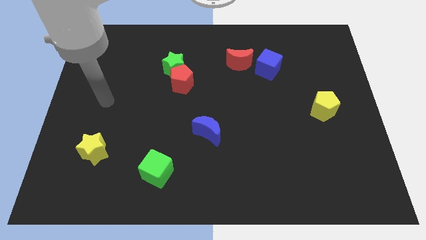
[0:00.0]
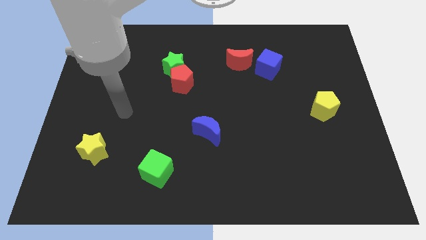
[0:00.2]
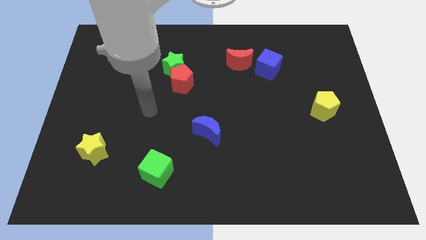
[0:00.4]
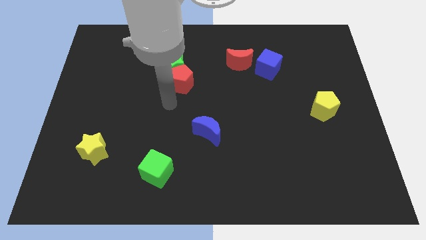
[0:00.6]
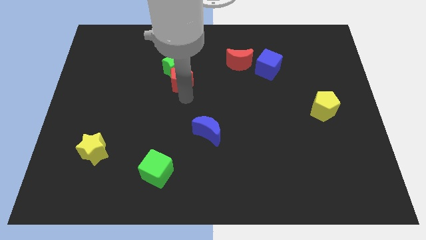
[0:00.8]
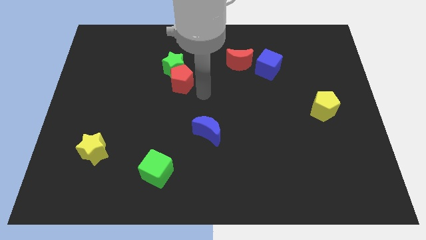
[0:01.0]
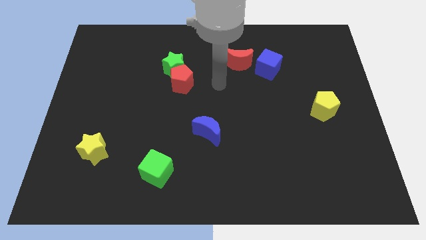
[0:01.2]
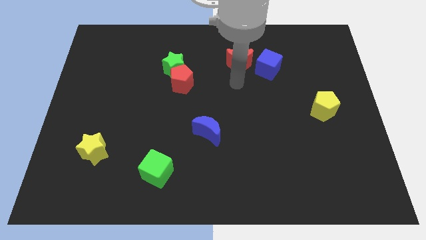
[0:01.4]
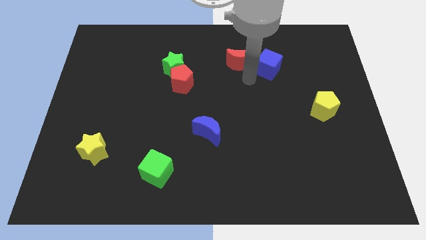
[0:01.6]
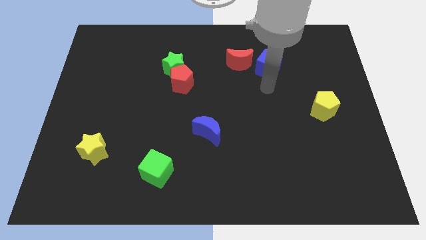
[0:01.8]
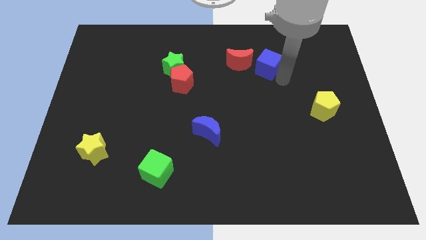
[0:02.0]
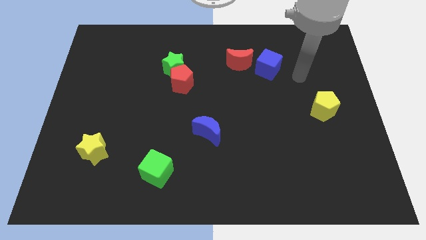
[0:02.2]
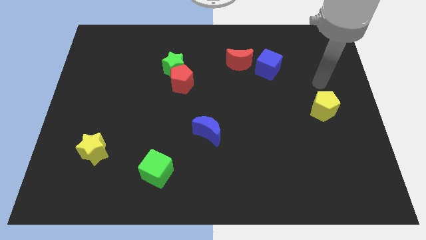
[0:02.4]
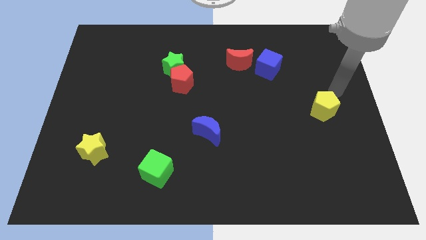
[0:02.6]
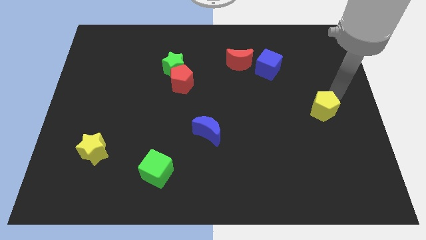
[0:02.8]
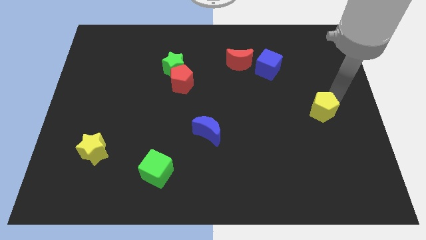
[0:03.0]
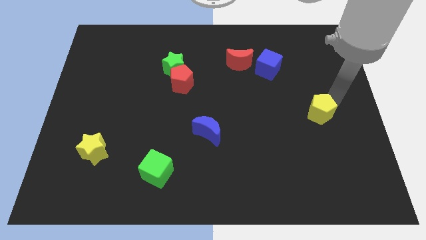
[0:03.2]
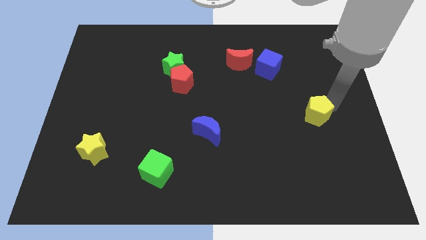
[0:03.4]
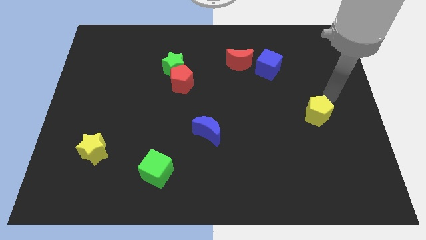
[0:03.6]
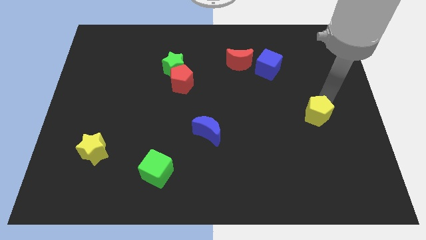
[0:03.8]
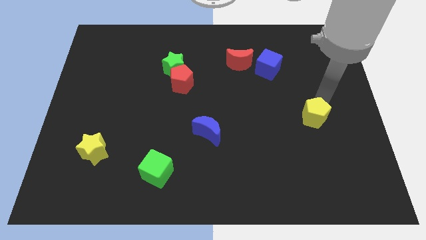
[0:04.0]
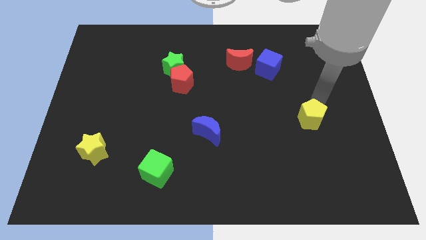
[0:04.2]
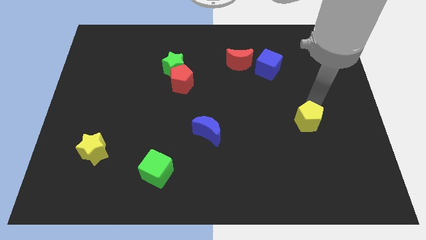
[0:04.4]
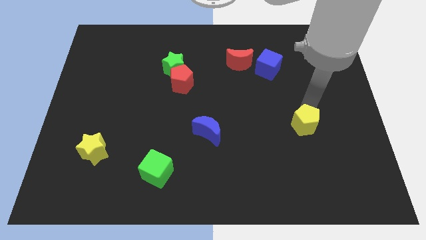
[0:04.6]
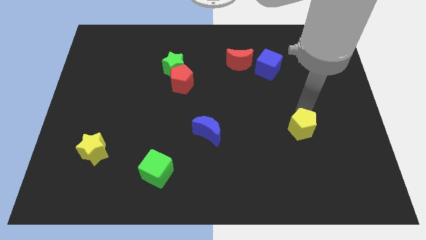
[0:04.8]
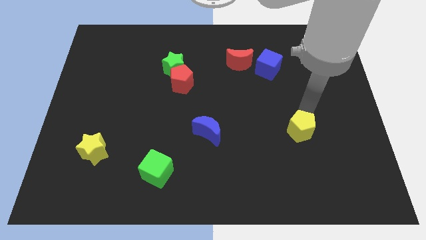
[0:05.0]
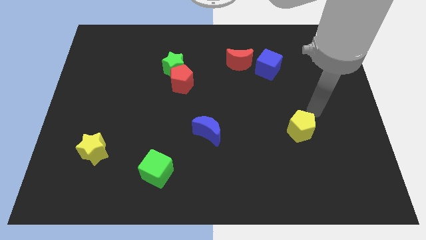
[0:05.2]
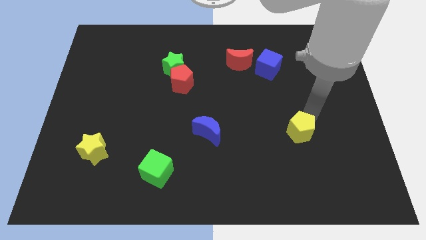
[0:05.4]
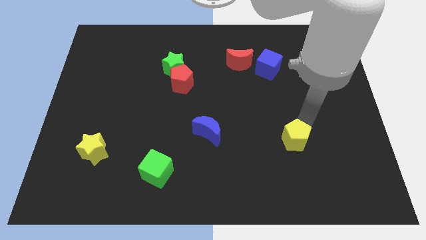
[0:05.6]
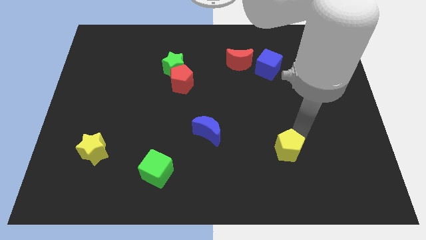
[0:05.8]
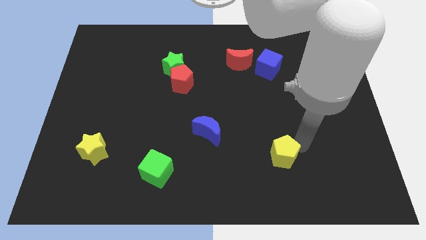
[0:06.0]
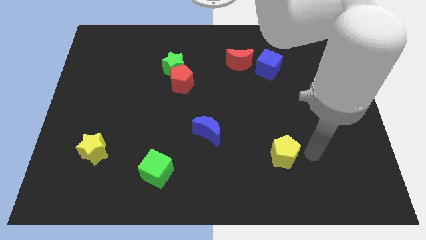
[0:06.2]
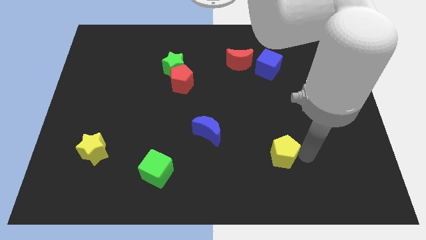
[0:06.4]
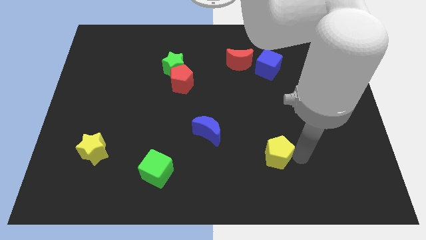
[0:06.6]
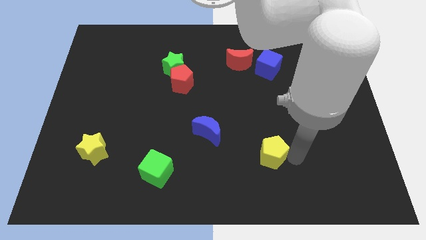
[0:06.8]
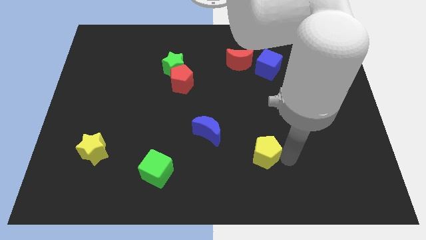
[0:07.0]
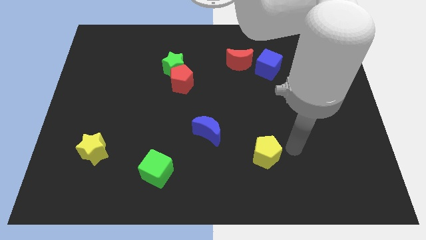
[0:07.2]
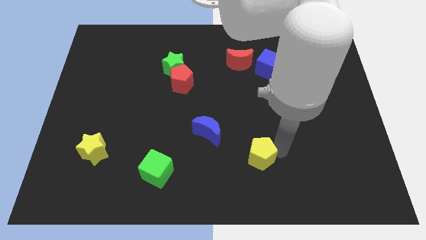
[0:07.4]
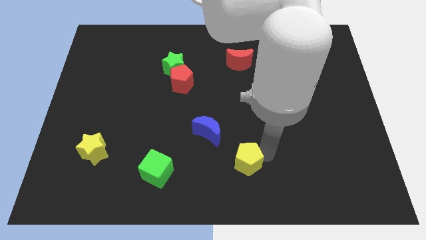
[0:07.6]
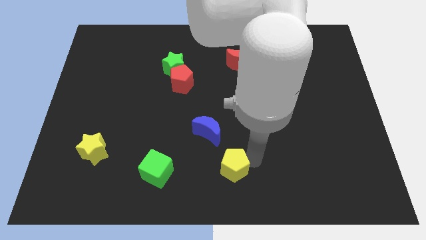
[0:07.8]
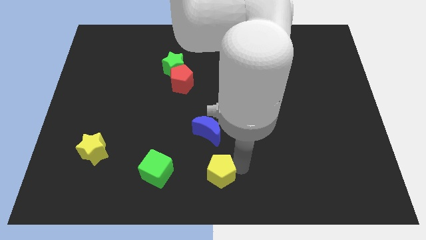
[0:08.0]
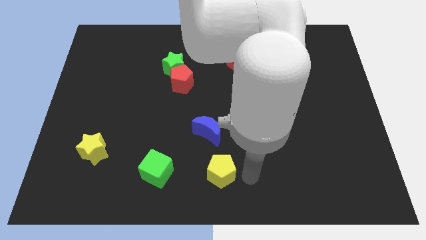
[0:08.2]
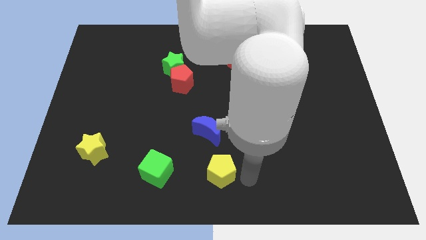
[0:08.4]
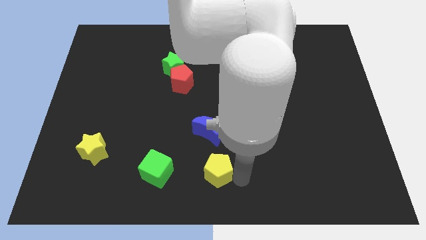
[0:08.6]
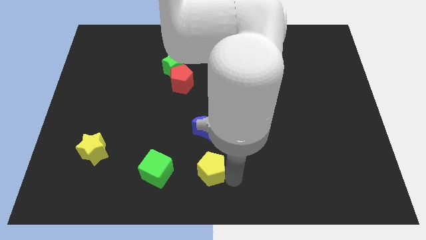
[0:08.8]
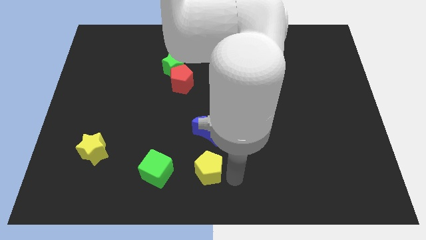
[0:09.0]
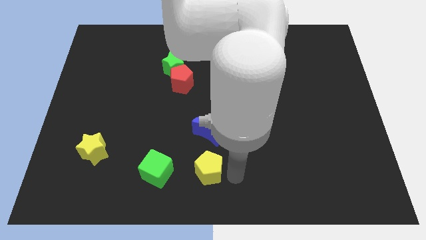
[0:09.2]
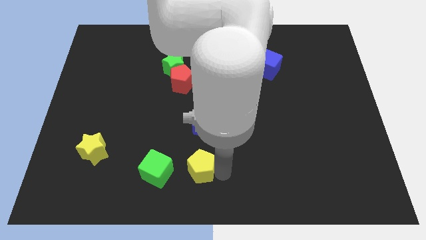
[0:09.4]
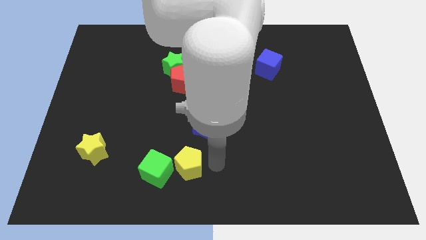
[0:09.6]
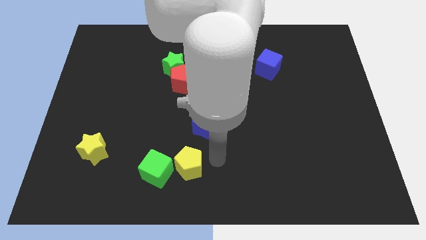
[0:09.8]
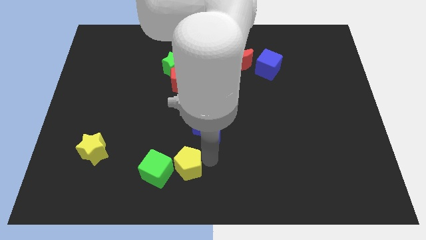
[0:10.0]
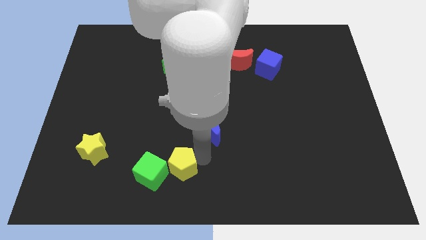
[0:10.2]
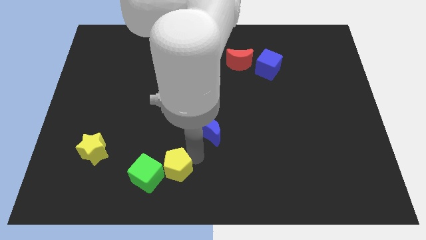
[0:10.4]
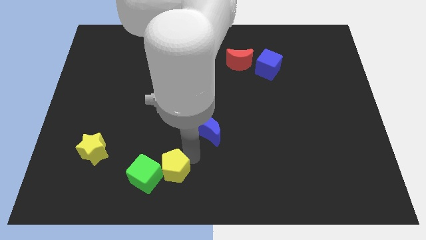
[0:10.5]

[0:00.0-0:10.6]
slide the yellow pentagon close to the green cube

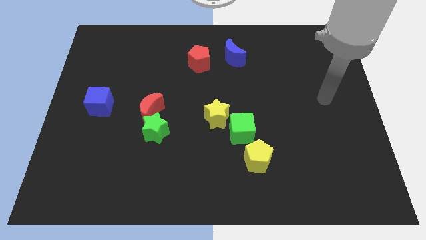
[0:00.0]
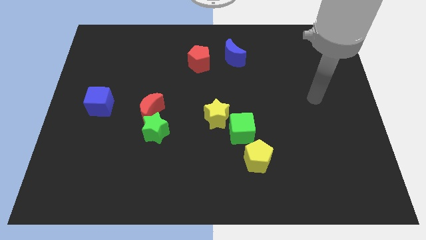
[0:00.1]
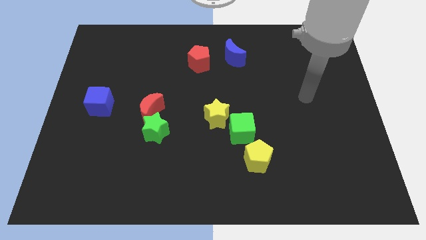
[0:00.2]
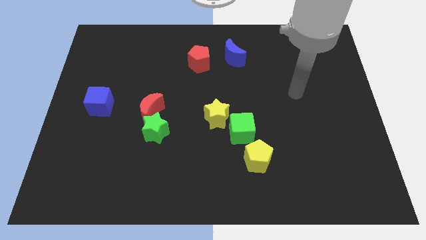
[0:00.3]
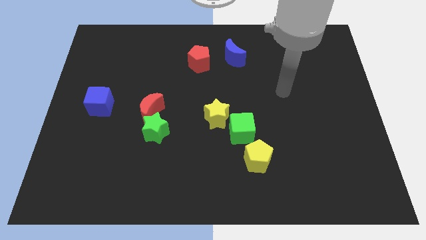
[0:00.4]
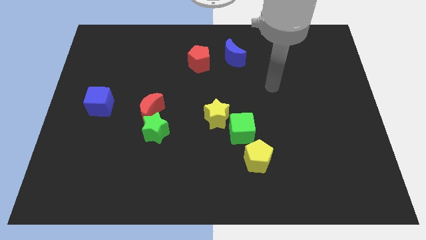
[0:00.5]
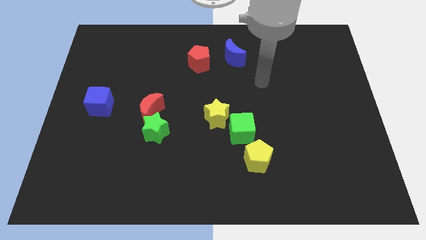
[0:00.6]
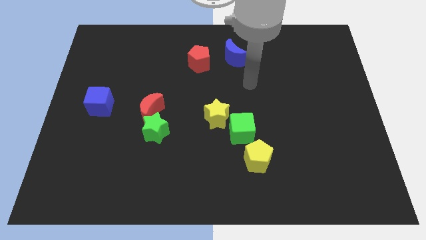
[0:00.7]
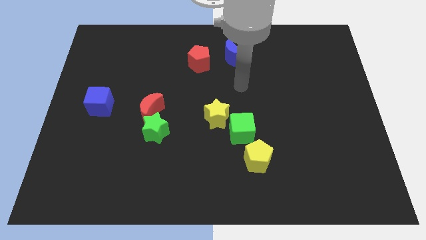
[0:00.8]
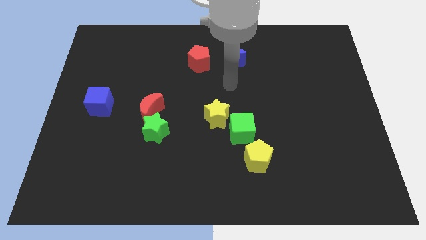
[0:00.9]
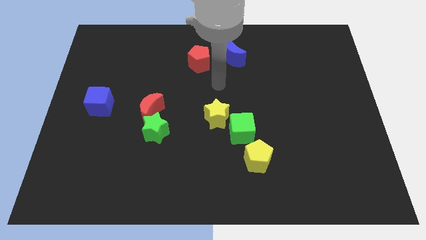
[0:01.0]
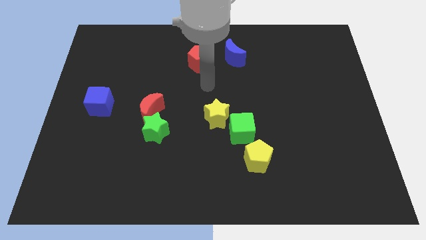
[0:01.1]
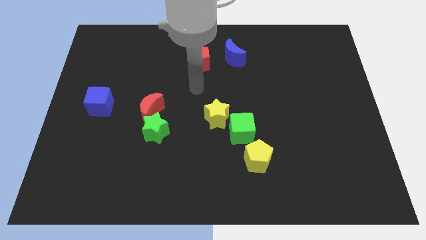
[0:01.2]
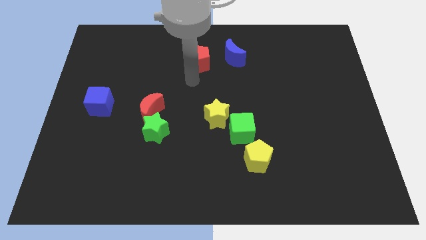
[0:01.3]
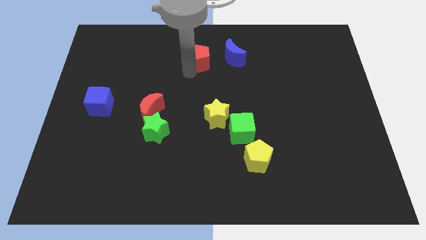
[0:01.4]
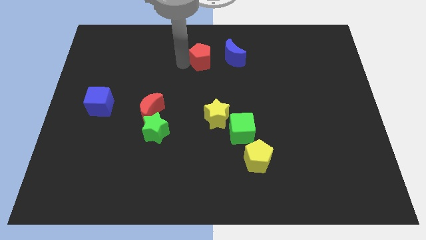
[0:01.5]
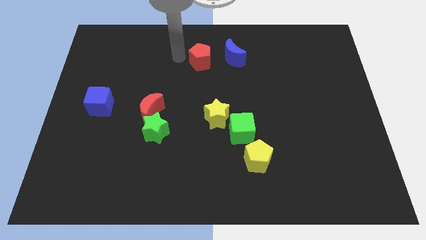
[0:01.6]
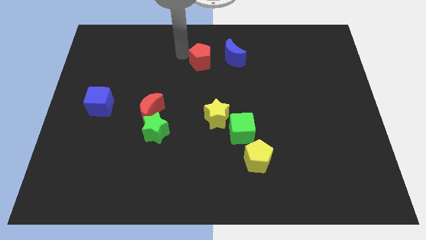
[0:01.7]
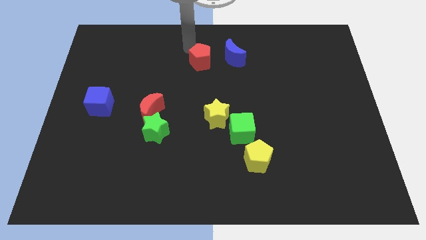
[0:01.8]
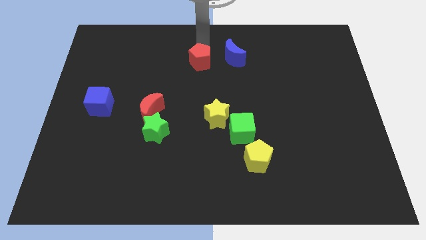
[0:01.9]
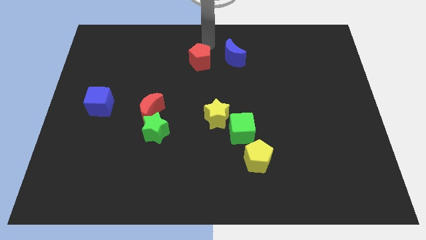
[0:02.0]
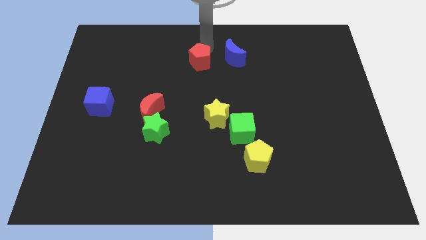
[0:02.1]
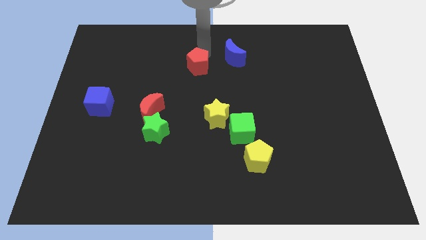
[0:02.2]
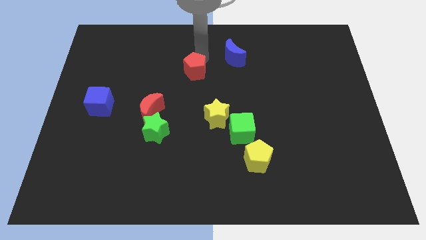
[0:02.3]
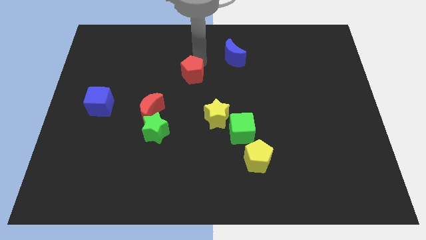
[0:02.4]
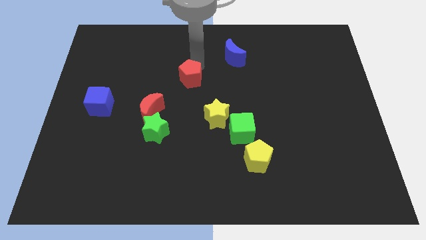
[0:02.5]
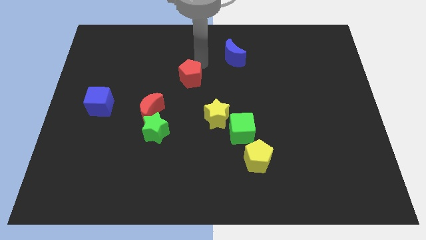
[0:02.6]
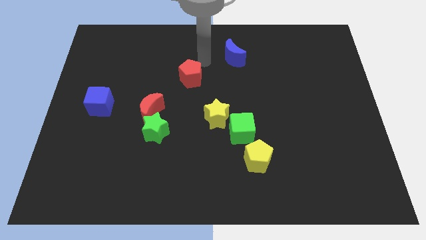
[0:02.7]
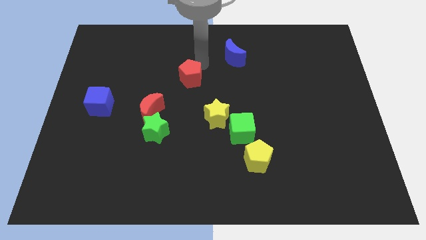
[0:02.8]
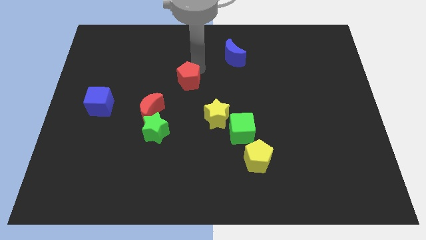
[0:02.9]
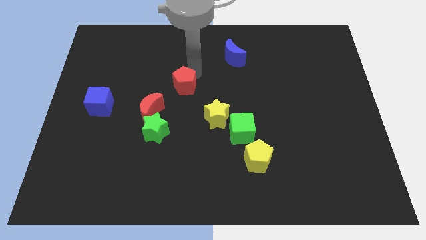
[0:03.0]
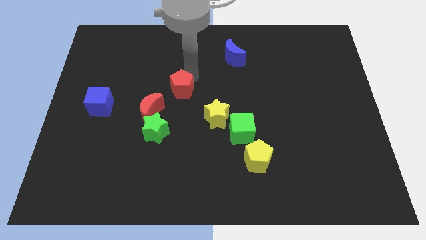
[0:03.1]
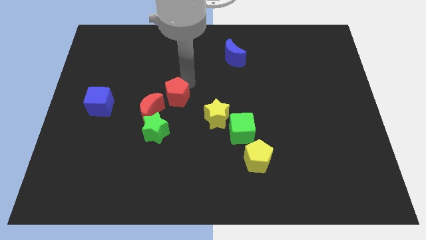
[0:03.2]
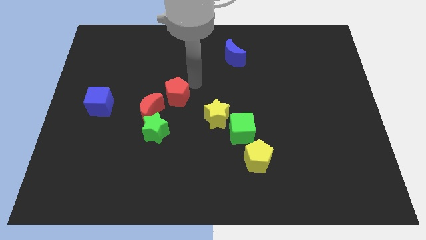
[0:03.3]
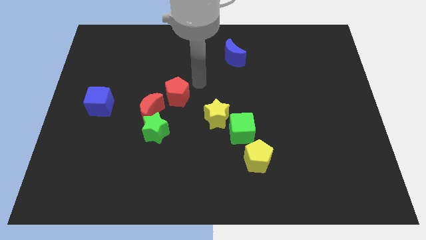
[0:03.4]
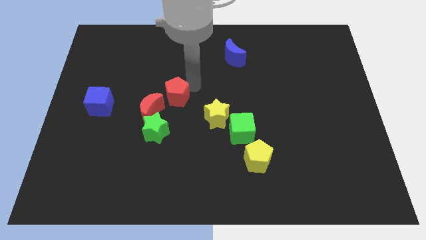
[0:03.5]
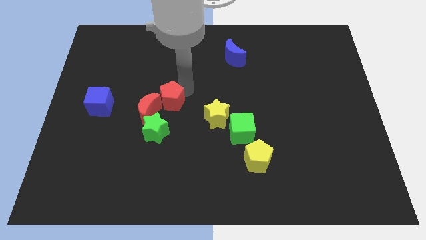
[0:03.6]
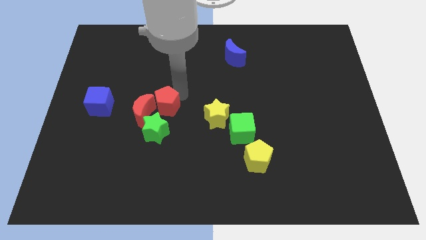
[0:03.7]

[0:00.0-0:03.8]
slide the red pentagon to the red moon
